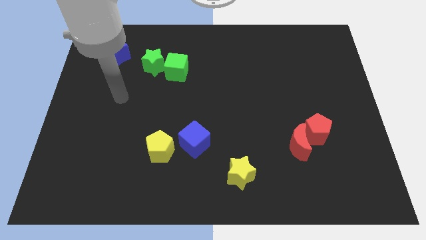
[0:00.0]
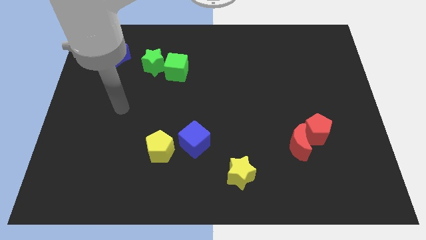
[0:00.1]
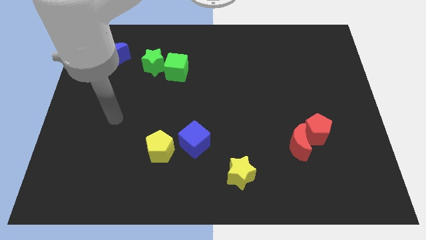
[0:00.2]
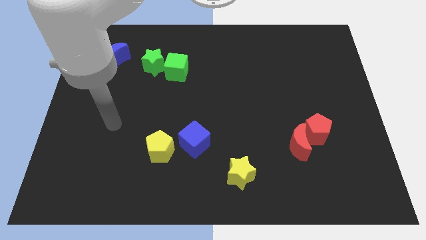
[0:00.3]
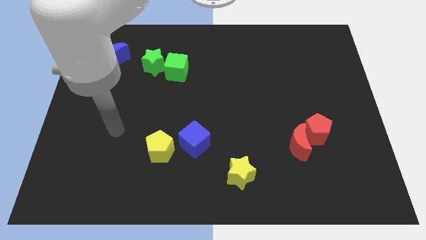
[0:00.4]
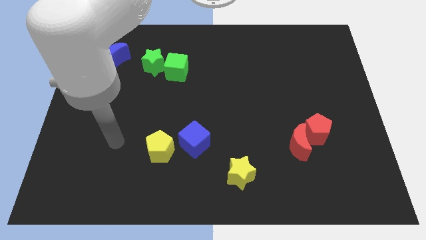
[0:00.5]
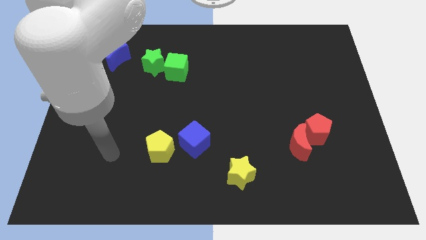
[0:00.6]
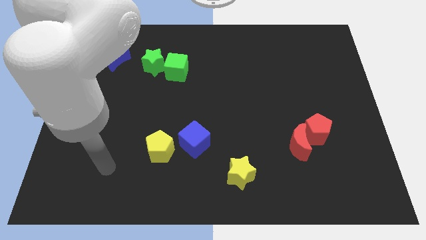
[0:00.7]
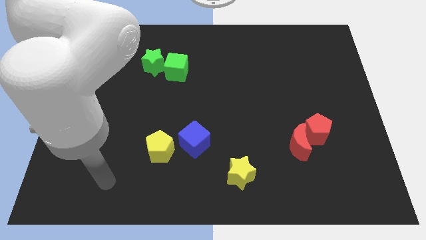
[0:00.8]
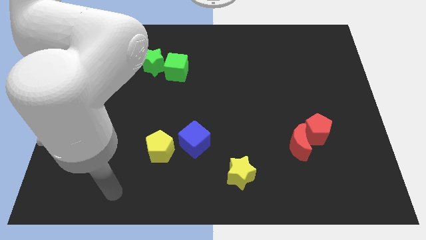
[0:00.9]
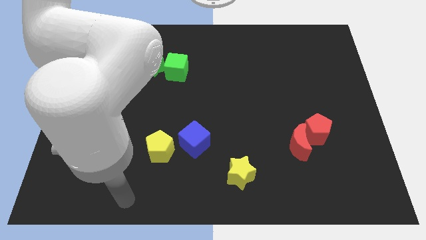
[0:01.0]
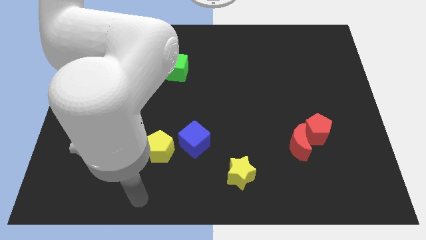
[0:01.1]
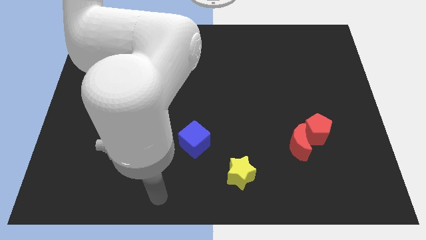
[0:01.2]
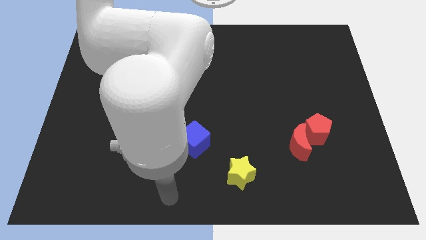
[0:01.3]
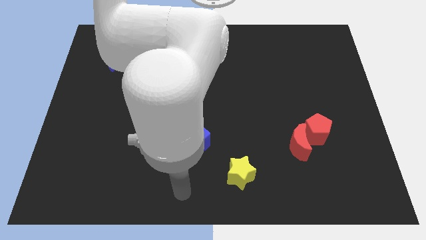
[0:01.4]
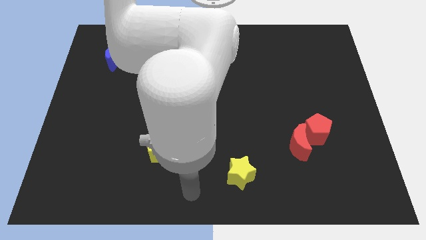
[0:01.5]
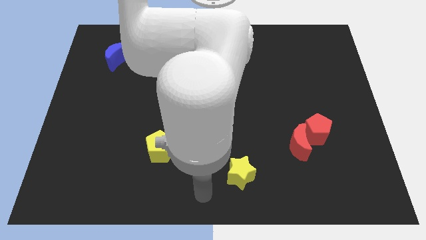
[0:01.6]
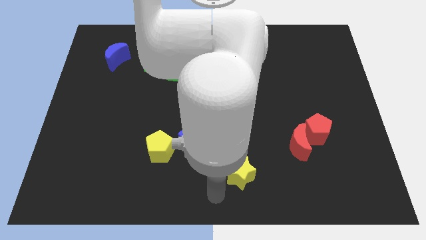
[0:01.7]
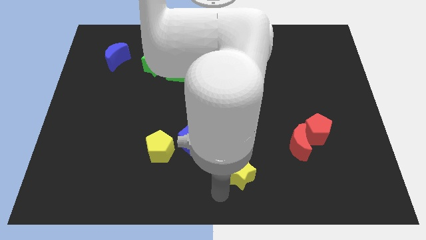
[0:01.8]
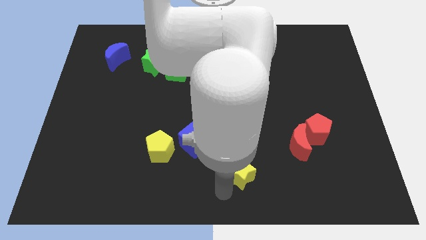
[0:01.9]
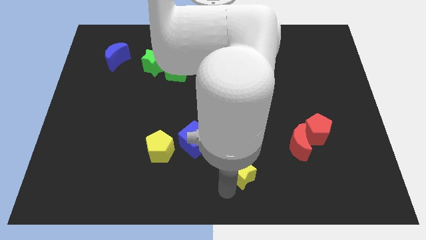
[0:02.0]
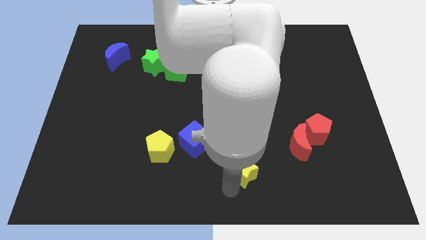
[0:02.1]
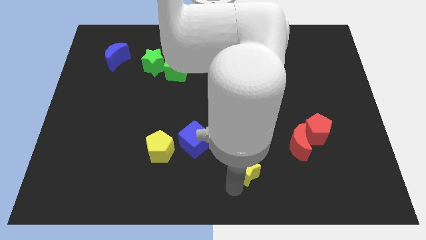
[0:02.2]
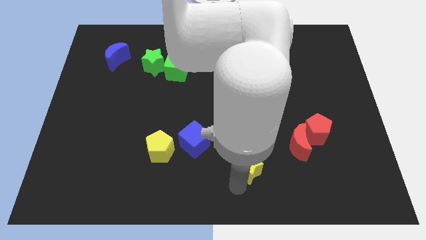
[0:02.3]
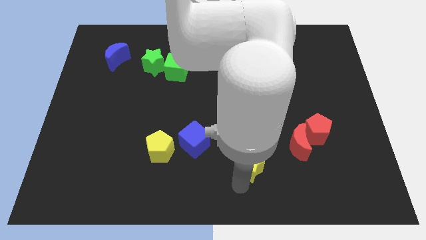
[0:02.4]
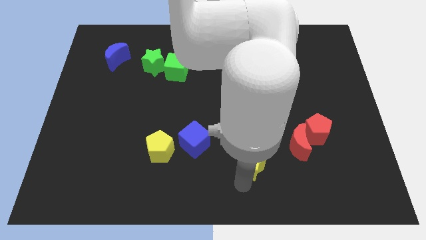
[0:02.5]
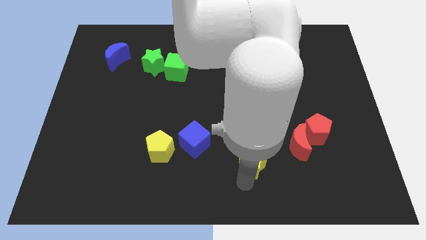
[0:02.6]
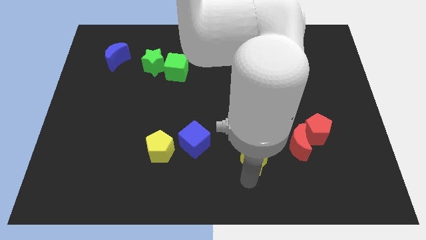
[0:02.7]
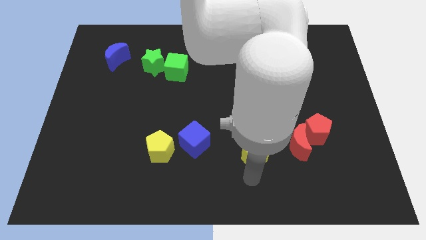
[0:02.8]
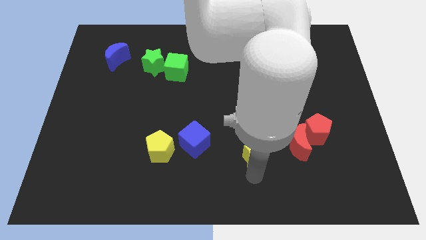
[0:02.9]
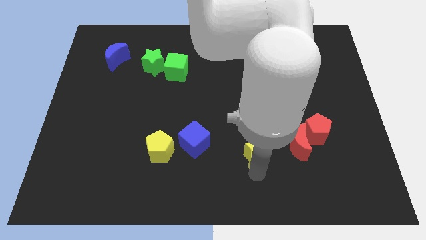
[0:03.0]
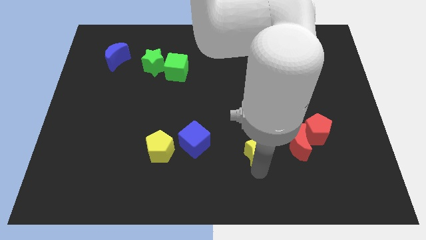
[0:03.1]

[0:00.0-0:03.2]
slide the yellow star slightly upwards and then to the right

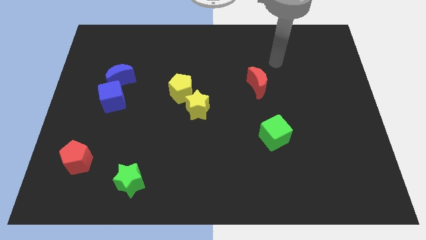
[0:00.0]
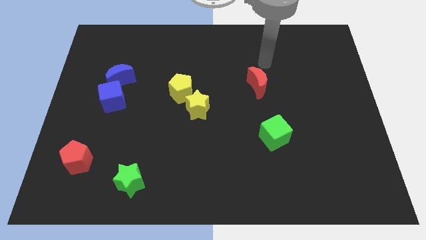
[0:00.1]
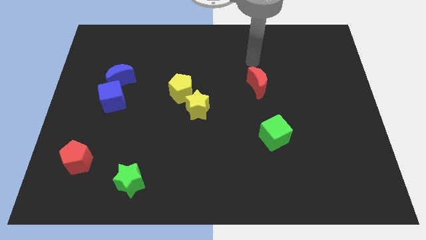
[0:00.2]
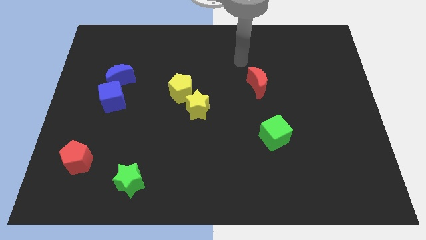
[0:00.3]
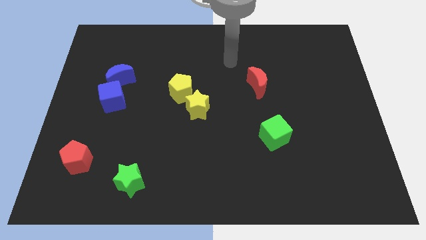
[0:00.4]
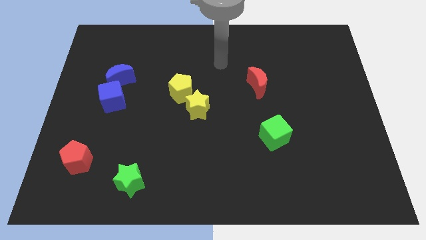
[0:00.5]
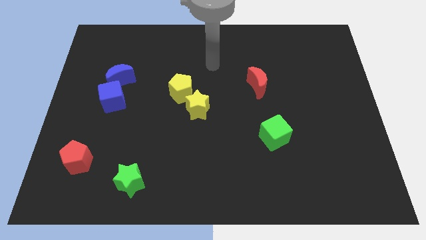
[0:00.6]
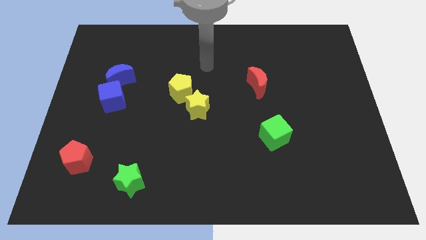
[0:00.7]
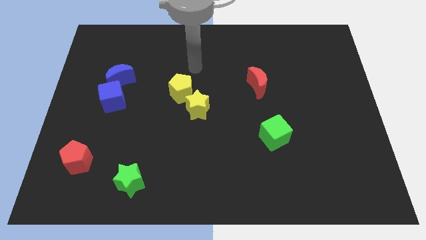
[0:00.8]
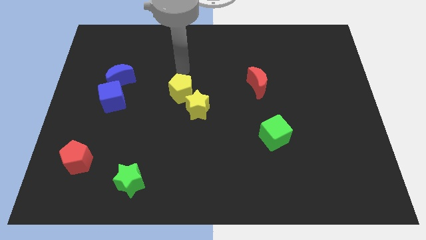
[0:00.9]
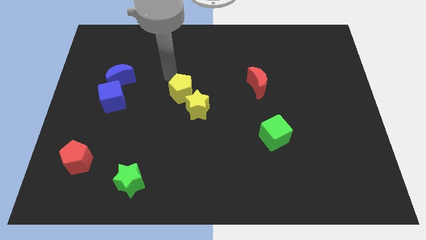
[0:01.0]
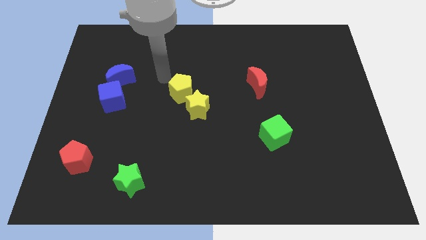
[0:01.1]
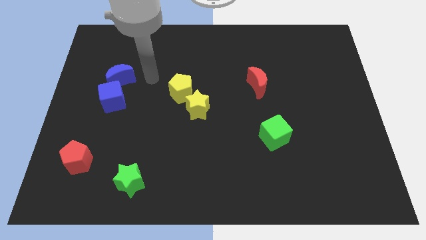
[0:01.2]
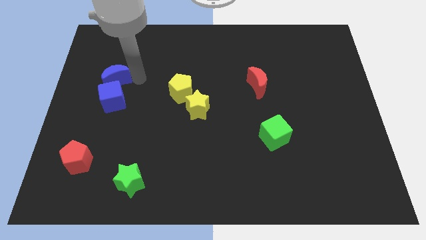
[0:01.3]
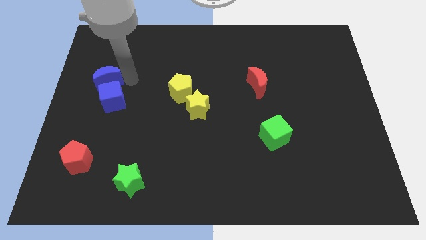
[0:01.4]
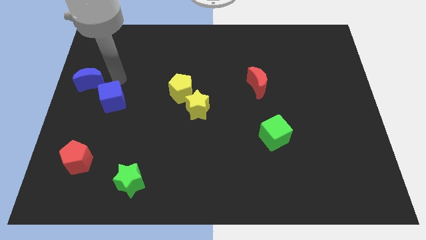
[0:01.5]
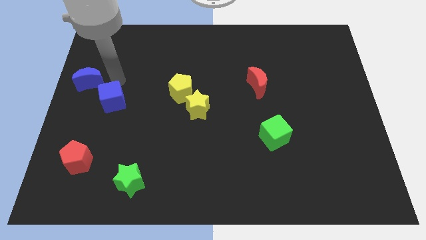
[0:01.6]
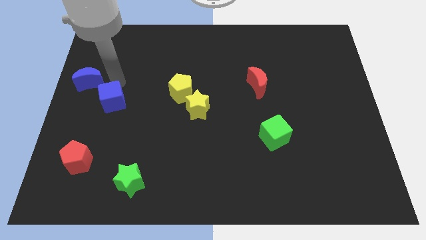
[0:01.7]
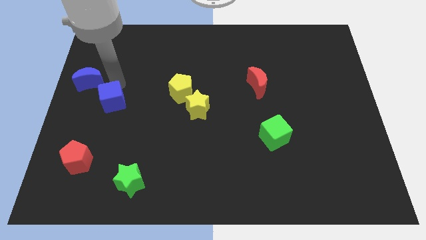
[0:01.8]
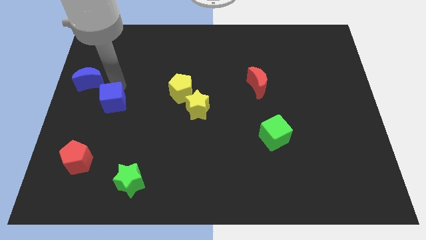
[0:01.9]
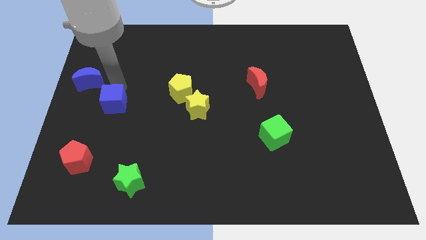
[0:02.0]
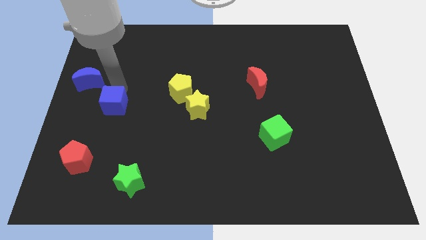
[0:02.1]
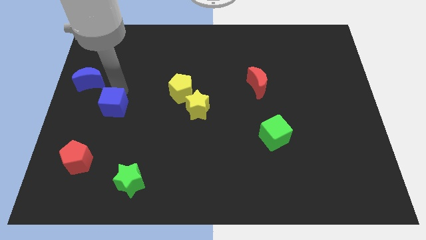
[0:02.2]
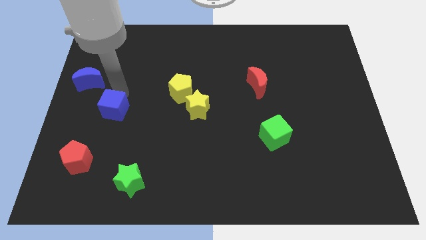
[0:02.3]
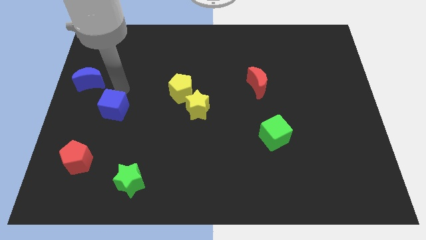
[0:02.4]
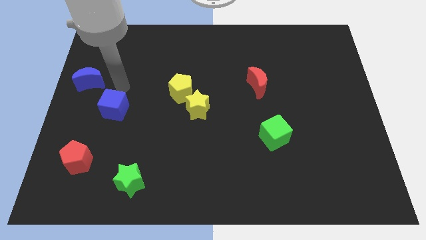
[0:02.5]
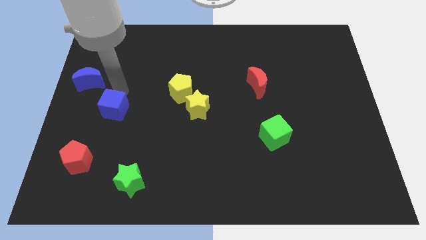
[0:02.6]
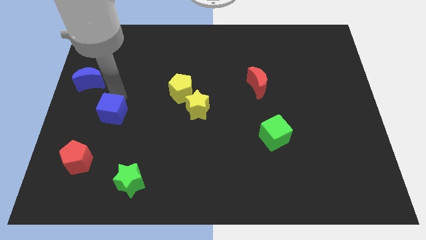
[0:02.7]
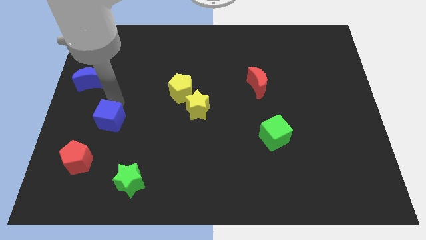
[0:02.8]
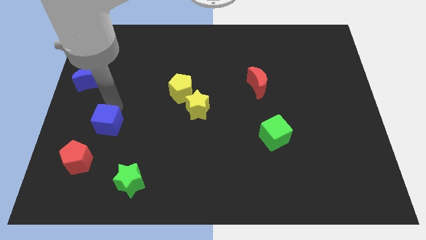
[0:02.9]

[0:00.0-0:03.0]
slightly push the blue cube downwards

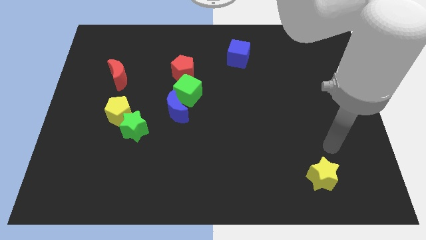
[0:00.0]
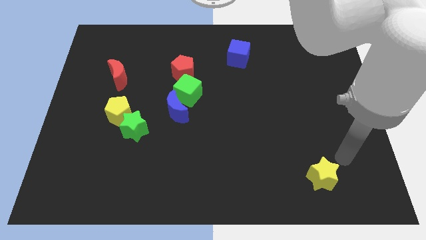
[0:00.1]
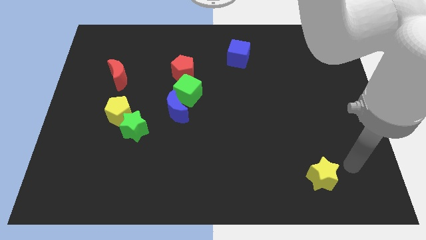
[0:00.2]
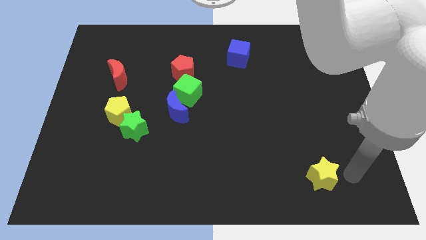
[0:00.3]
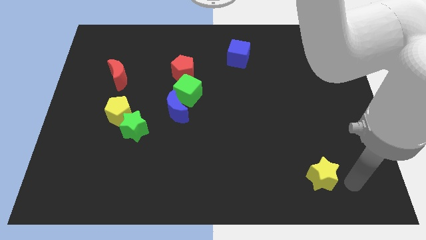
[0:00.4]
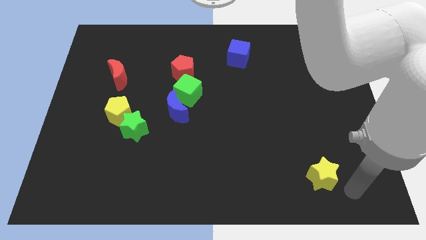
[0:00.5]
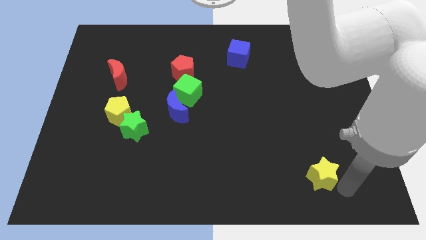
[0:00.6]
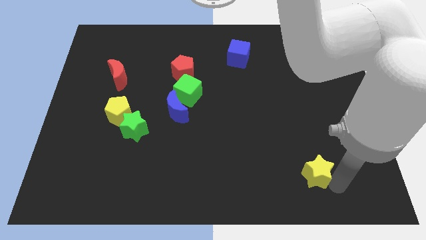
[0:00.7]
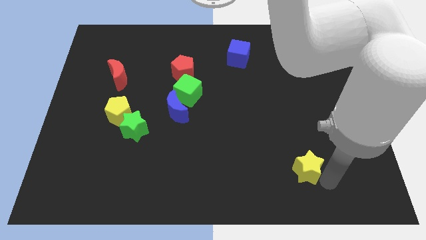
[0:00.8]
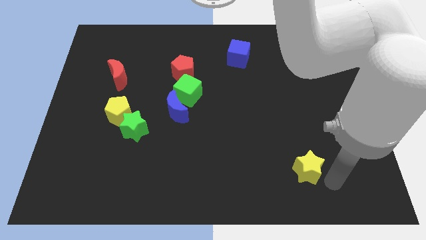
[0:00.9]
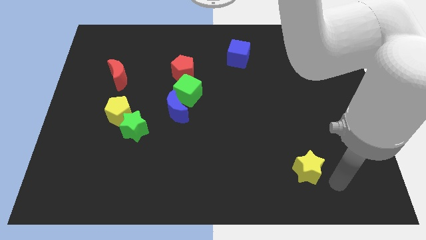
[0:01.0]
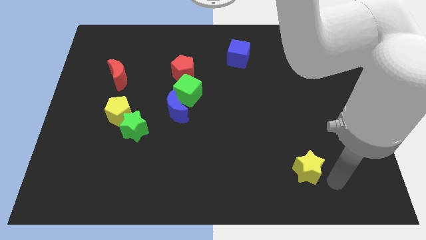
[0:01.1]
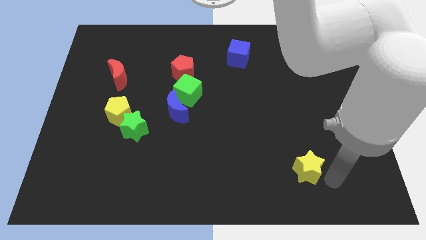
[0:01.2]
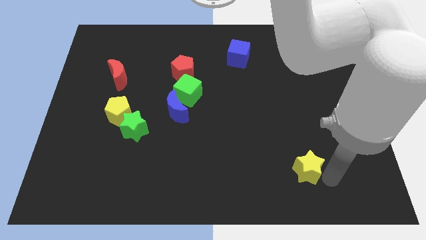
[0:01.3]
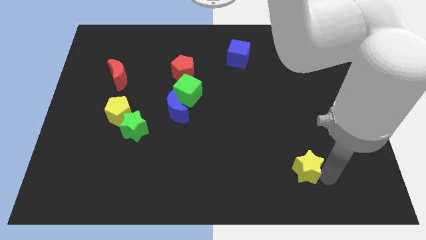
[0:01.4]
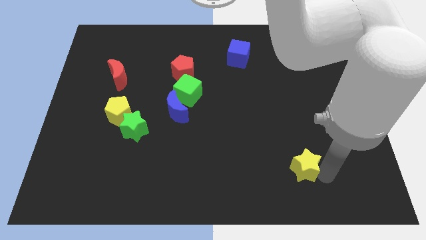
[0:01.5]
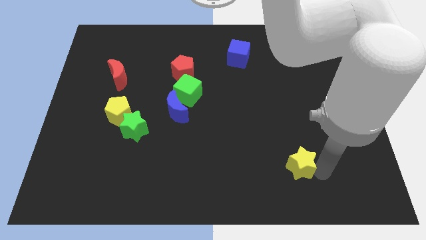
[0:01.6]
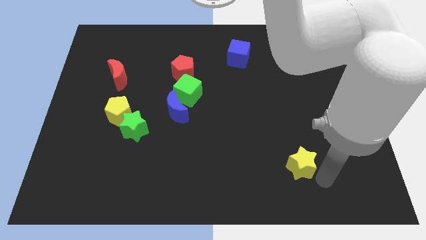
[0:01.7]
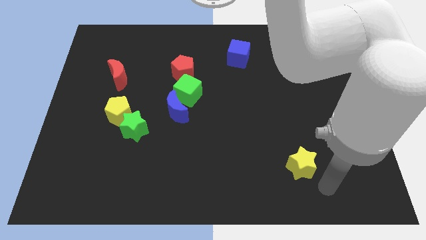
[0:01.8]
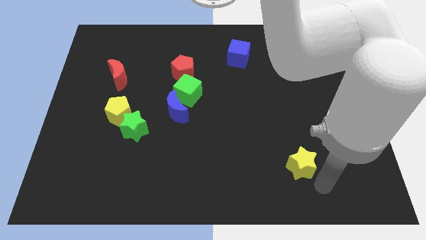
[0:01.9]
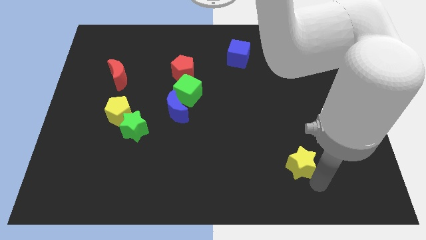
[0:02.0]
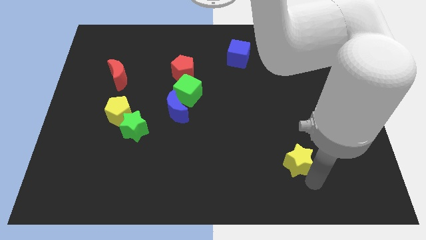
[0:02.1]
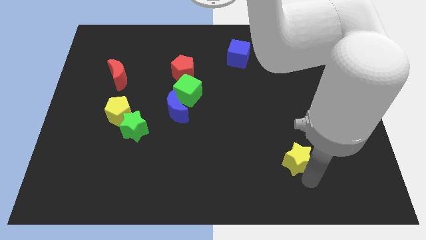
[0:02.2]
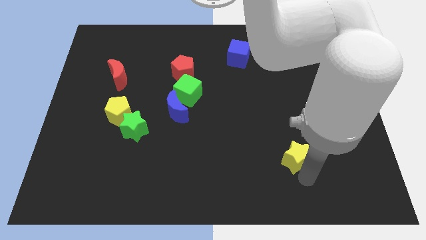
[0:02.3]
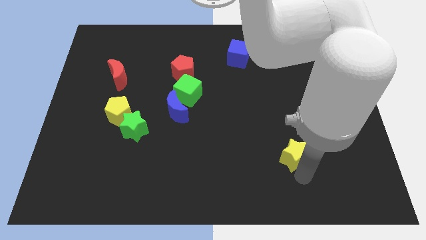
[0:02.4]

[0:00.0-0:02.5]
move the yellow star up and then to the left a little bit
